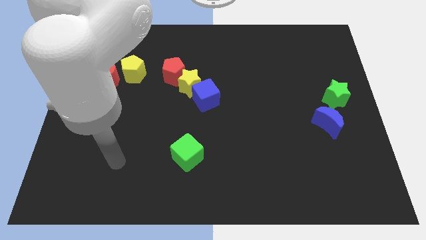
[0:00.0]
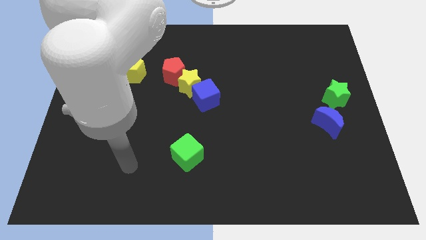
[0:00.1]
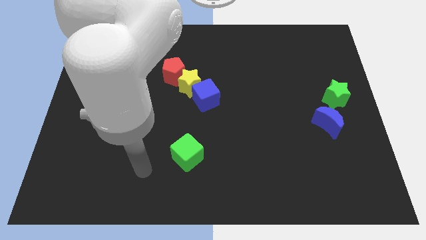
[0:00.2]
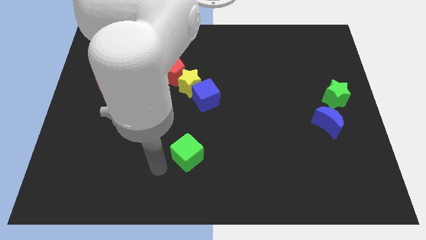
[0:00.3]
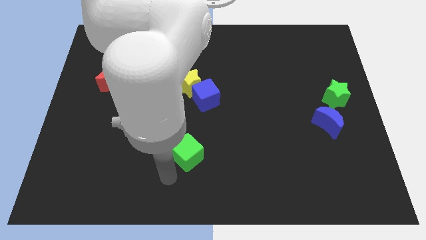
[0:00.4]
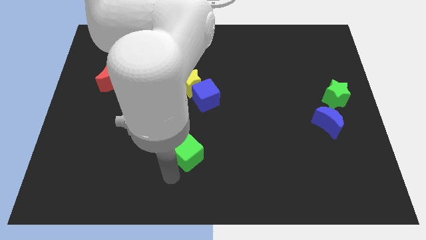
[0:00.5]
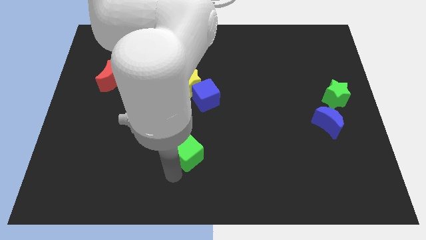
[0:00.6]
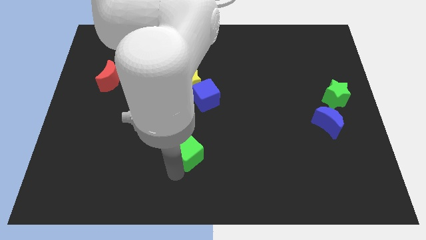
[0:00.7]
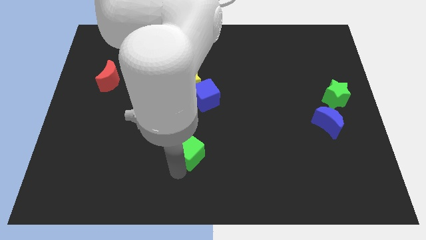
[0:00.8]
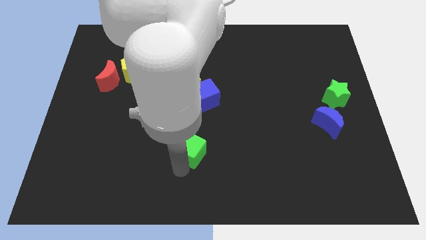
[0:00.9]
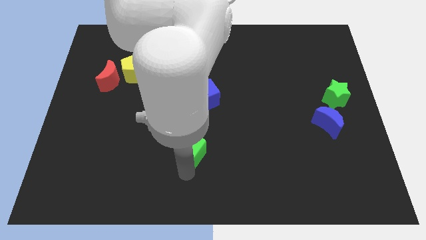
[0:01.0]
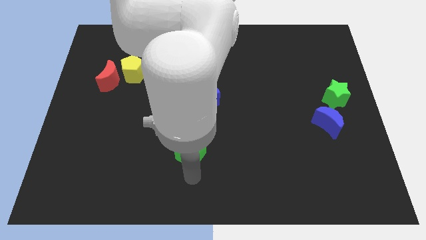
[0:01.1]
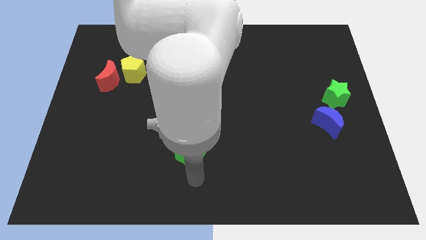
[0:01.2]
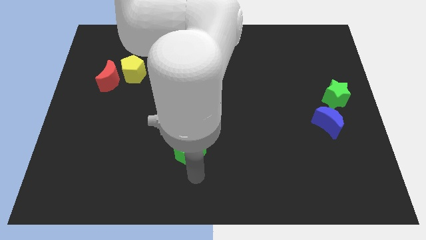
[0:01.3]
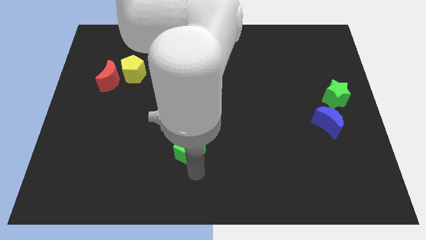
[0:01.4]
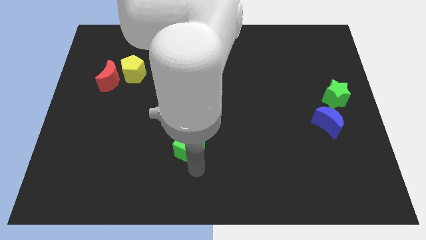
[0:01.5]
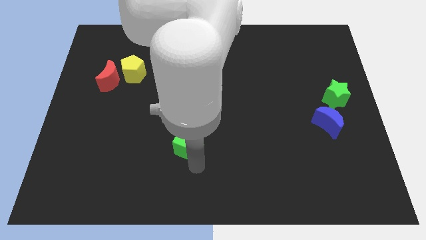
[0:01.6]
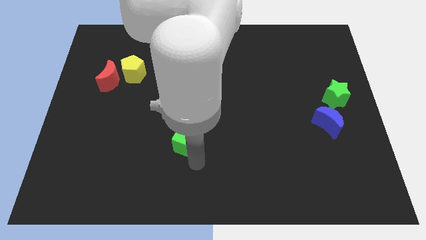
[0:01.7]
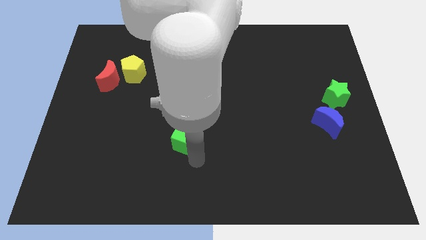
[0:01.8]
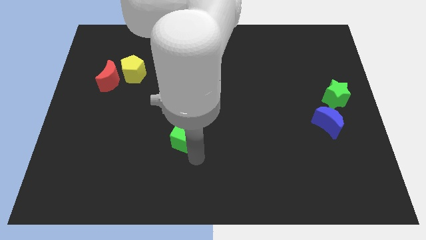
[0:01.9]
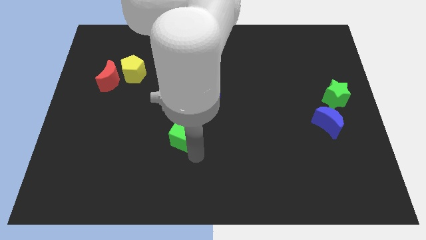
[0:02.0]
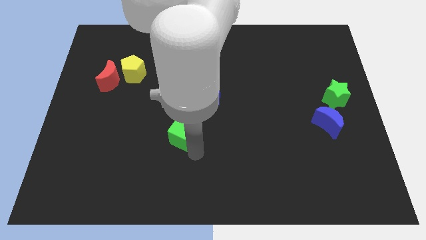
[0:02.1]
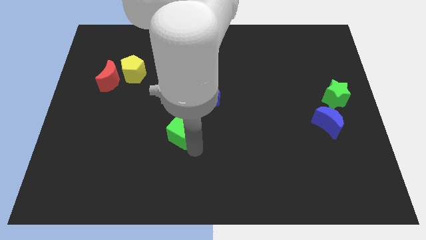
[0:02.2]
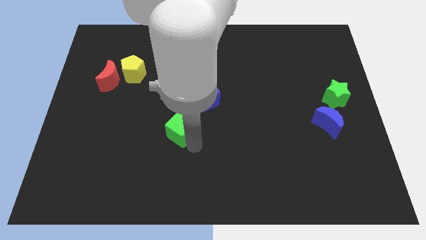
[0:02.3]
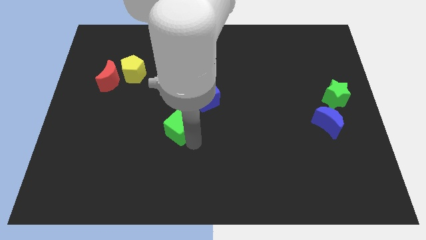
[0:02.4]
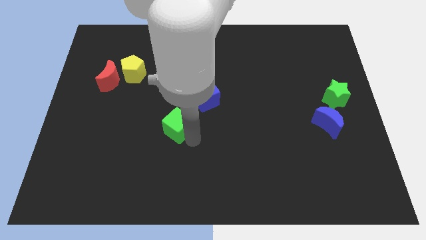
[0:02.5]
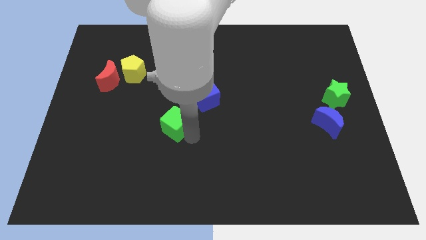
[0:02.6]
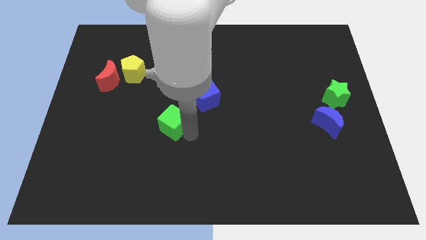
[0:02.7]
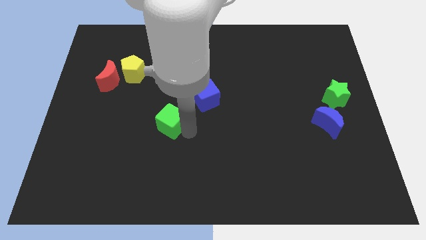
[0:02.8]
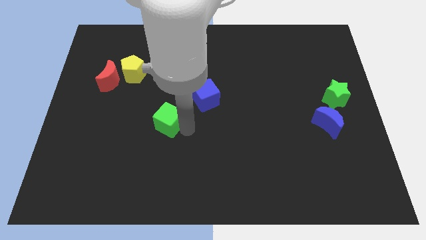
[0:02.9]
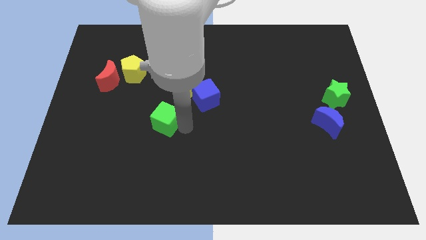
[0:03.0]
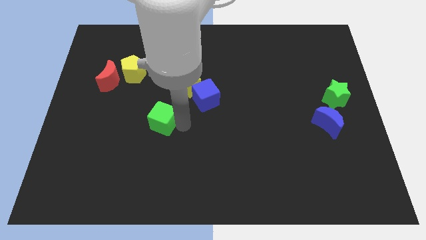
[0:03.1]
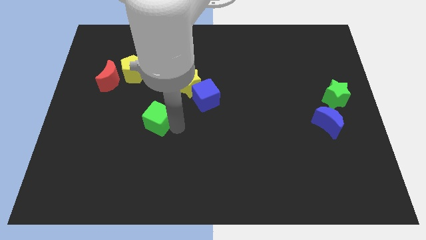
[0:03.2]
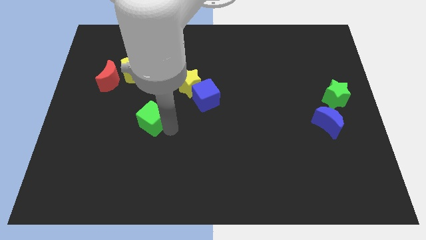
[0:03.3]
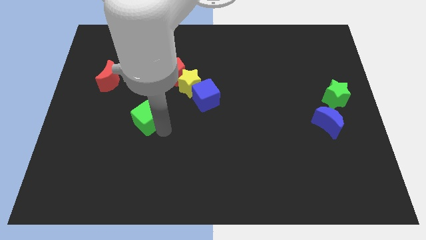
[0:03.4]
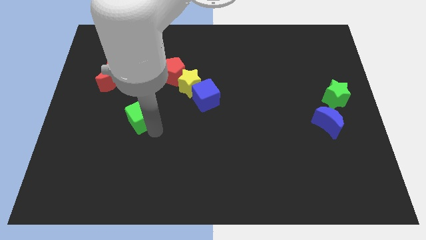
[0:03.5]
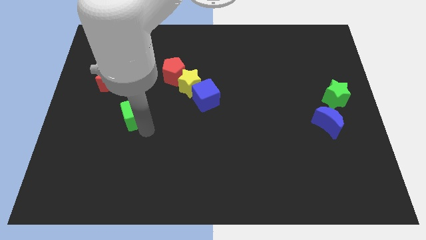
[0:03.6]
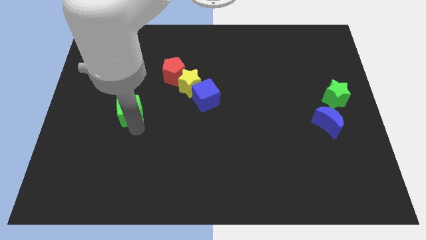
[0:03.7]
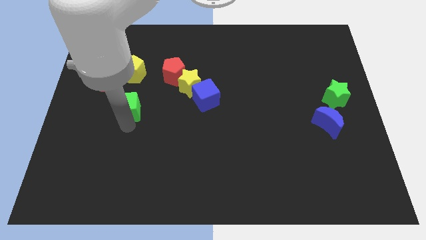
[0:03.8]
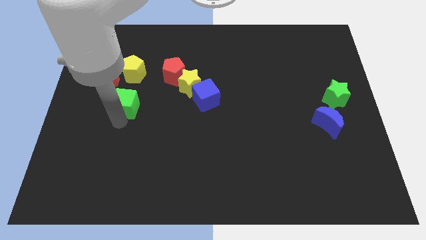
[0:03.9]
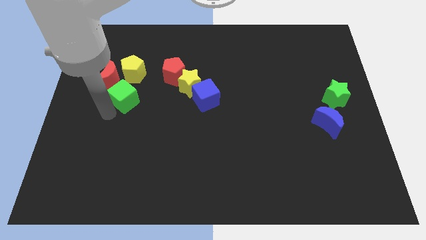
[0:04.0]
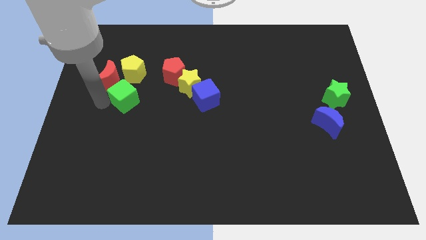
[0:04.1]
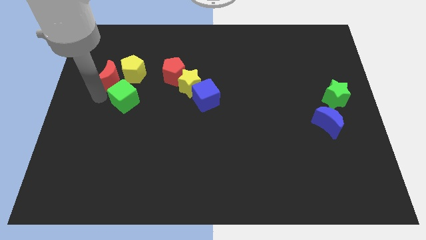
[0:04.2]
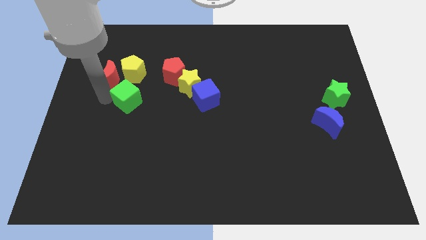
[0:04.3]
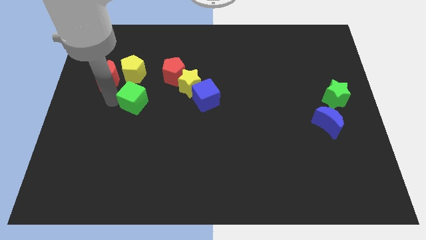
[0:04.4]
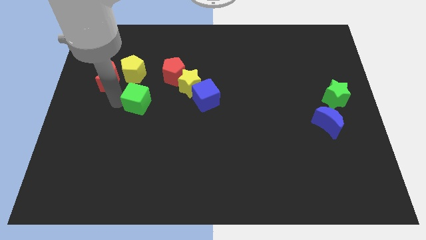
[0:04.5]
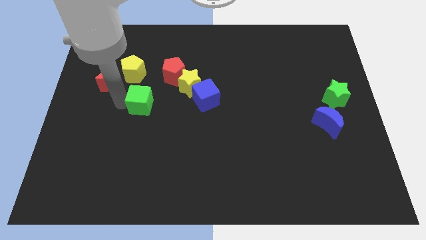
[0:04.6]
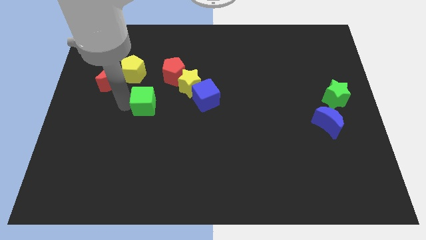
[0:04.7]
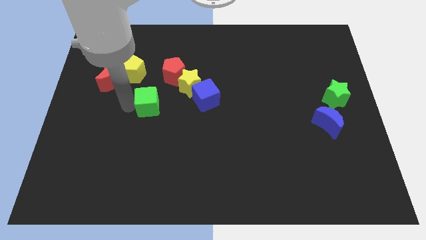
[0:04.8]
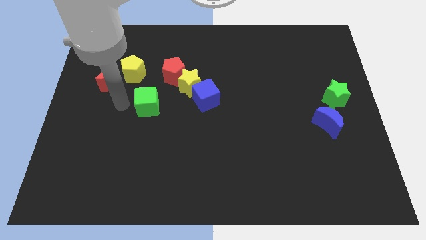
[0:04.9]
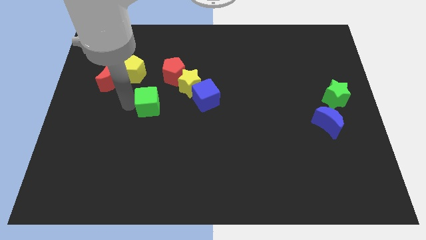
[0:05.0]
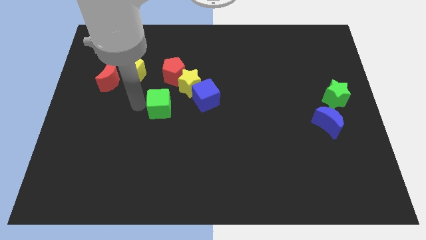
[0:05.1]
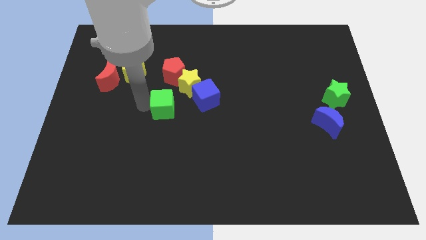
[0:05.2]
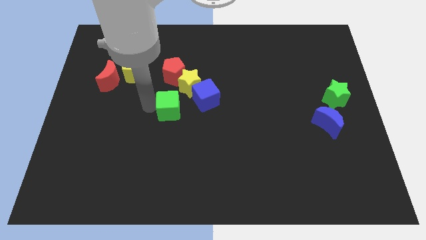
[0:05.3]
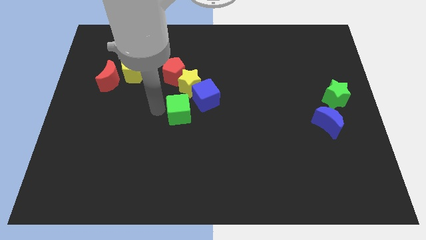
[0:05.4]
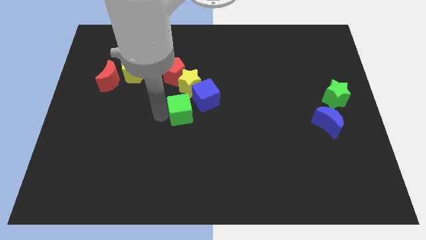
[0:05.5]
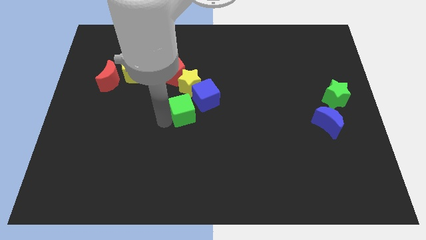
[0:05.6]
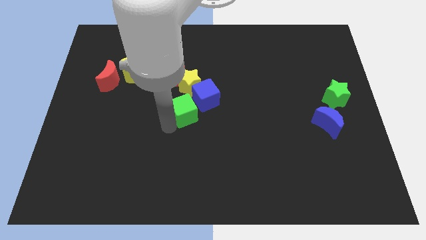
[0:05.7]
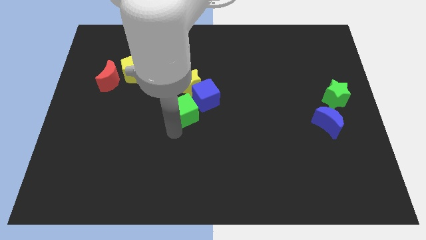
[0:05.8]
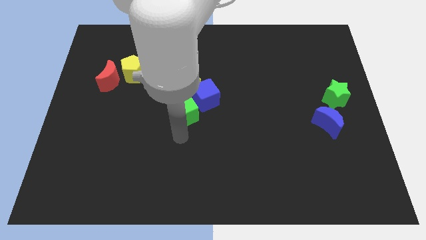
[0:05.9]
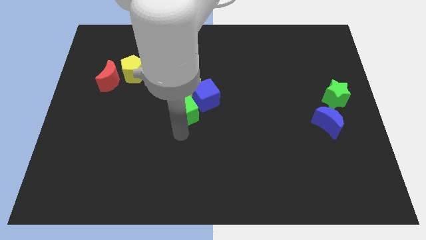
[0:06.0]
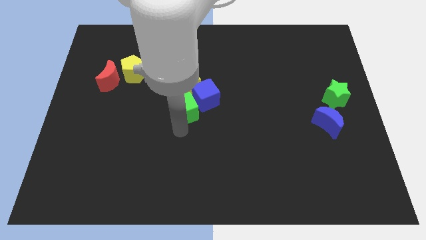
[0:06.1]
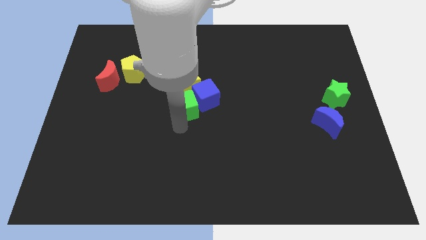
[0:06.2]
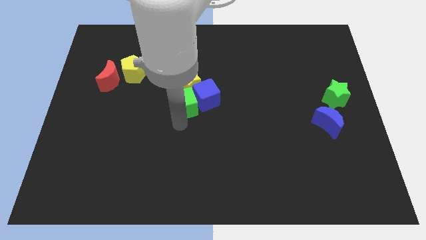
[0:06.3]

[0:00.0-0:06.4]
slide the green cube next to the yellow star

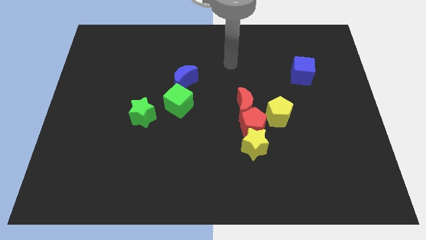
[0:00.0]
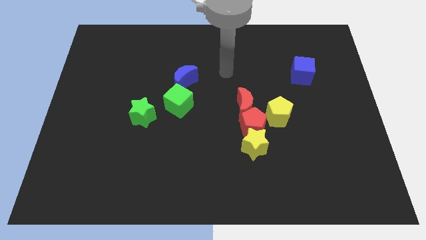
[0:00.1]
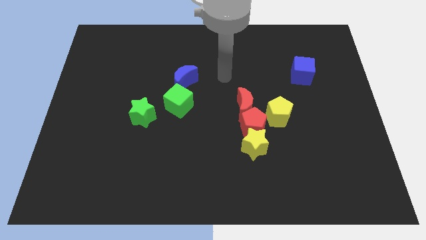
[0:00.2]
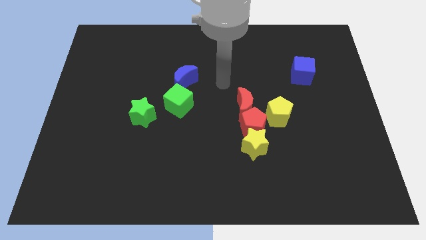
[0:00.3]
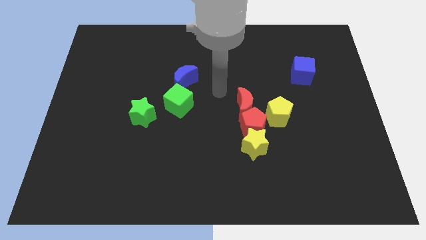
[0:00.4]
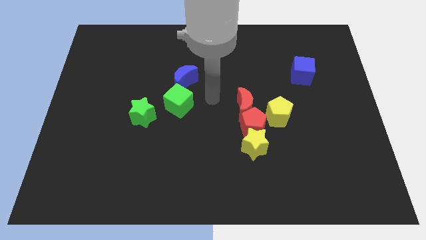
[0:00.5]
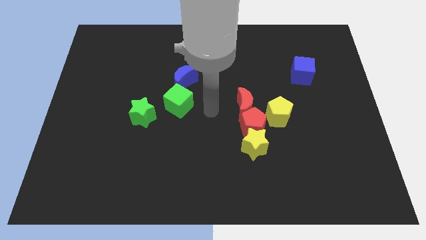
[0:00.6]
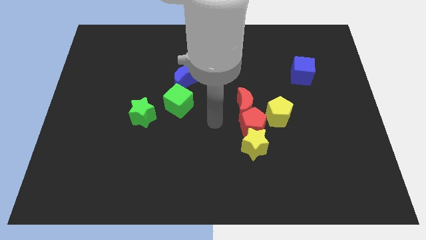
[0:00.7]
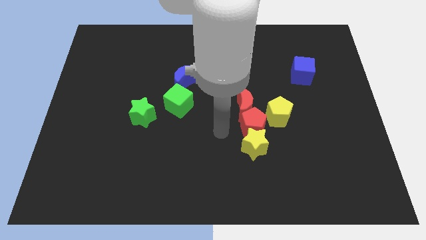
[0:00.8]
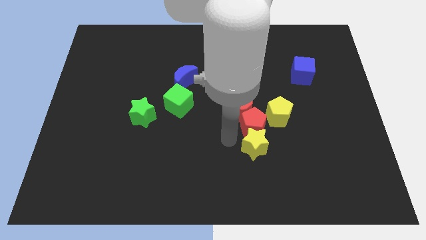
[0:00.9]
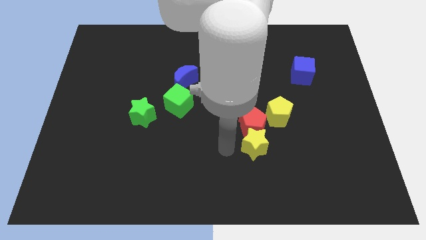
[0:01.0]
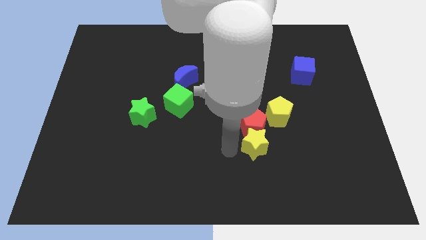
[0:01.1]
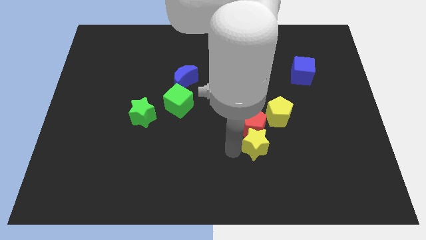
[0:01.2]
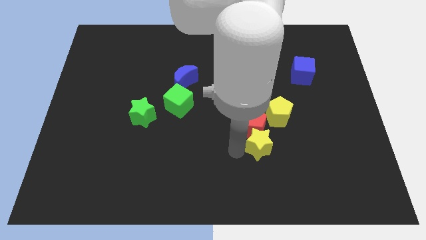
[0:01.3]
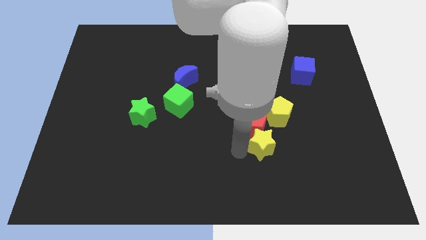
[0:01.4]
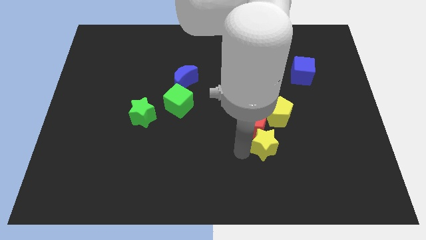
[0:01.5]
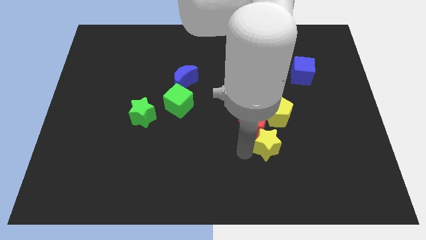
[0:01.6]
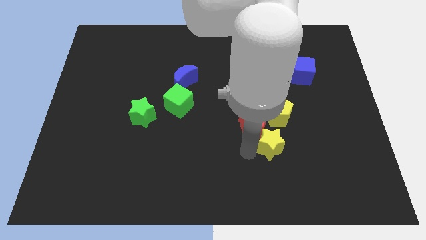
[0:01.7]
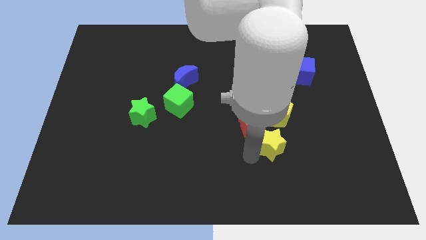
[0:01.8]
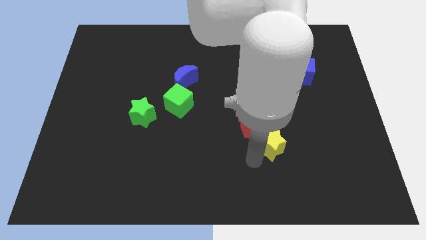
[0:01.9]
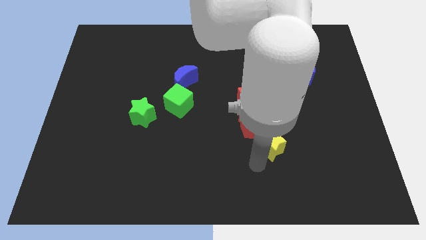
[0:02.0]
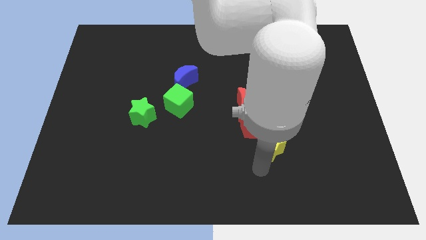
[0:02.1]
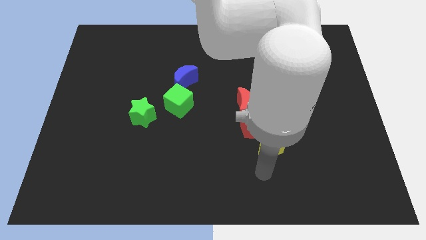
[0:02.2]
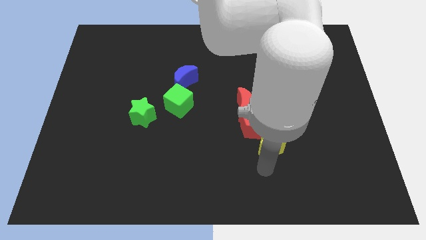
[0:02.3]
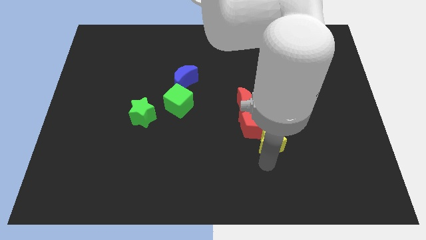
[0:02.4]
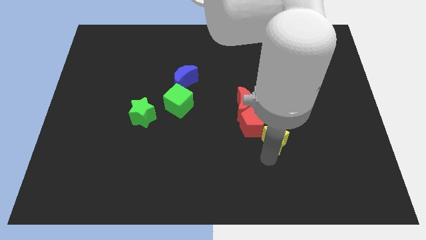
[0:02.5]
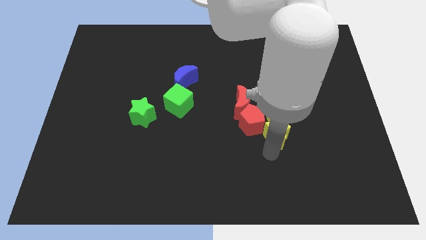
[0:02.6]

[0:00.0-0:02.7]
put the yellow star towards the yellow pentagon
